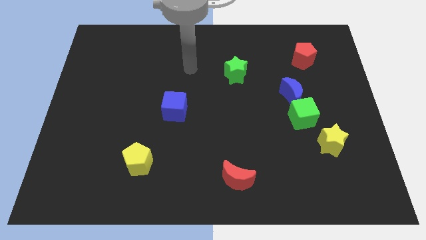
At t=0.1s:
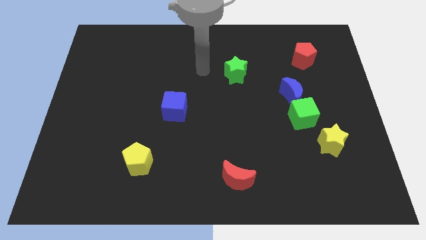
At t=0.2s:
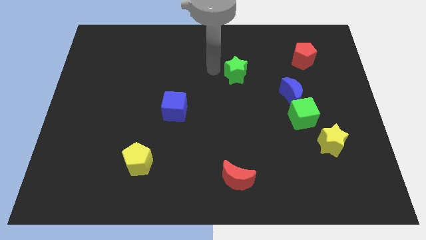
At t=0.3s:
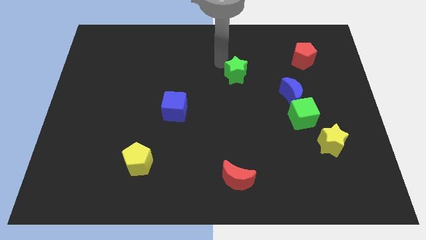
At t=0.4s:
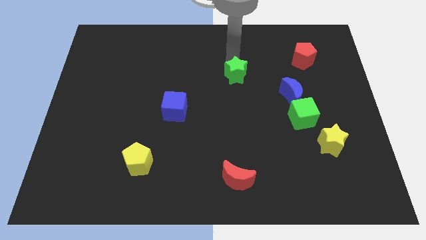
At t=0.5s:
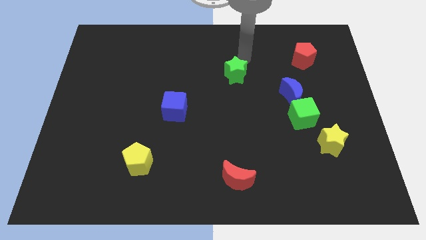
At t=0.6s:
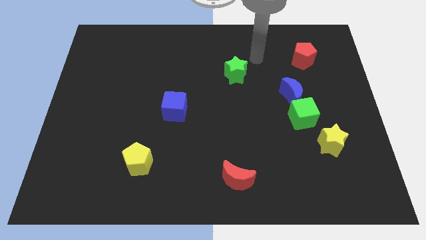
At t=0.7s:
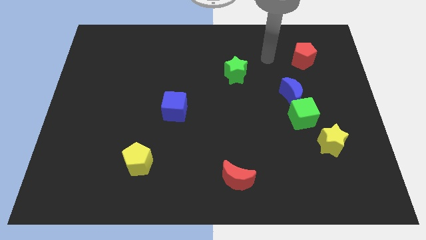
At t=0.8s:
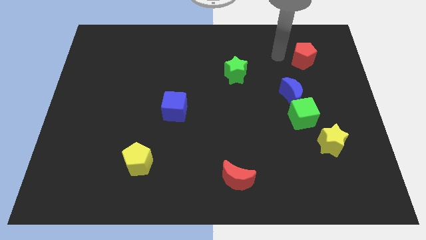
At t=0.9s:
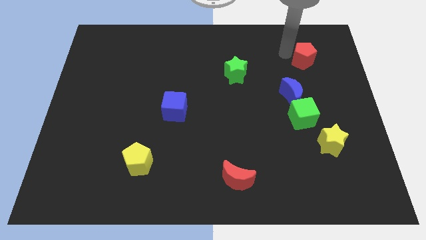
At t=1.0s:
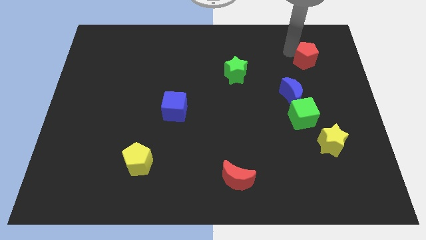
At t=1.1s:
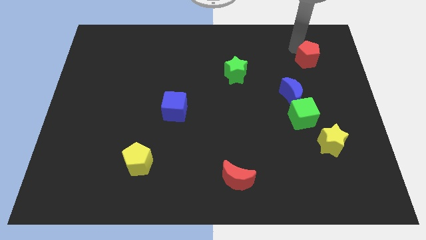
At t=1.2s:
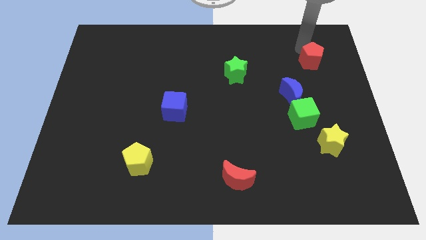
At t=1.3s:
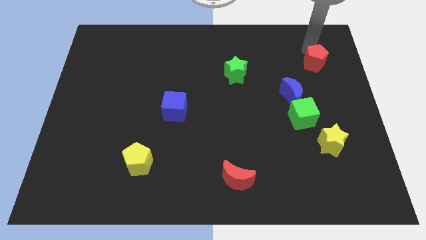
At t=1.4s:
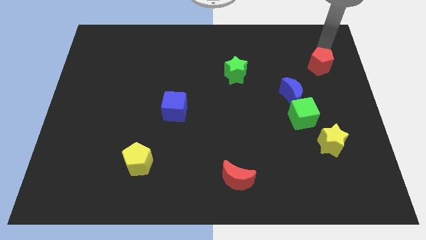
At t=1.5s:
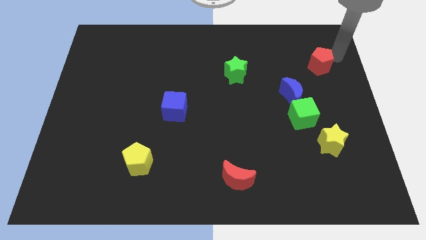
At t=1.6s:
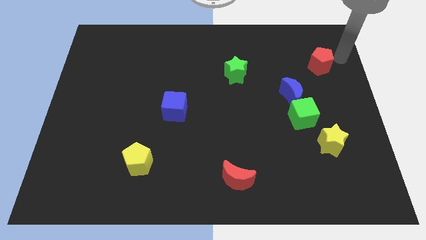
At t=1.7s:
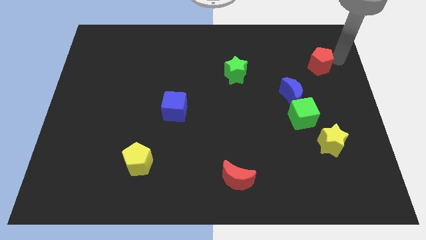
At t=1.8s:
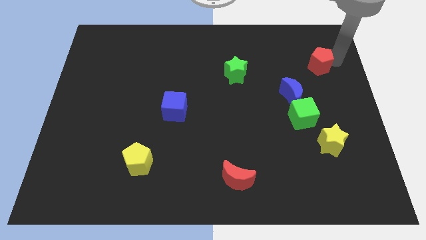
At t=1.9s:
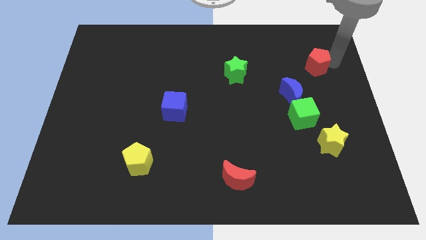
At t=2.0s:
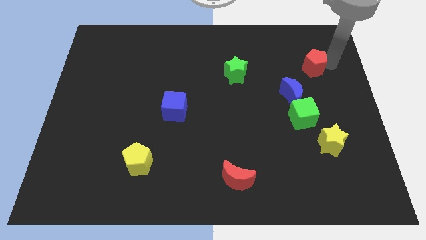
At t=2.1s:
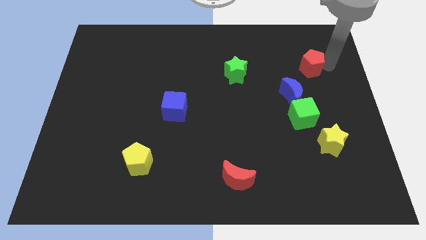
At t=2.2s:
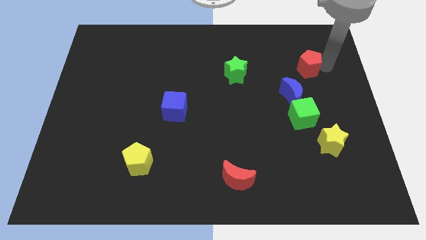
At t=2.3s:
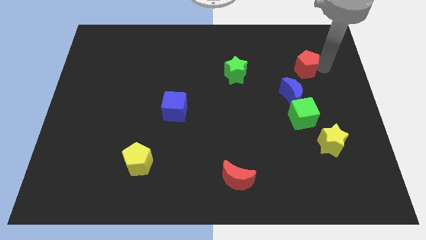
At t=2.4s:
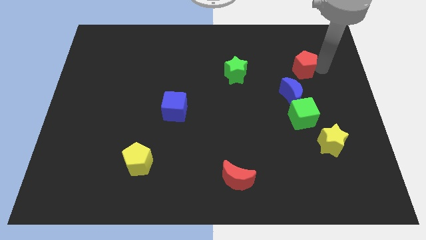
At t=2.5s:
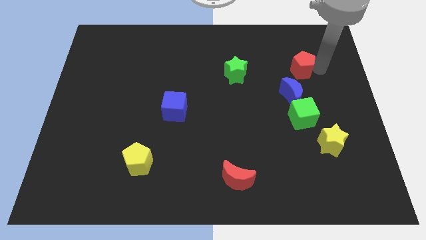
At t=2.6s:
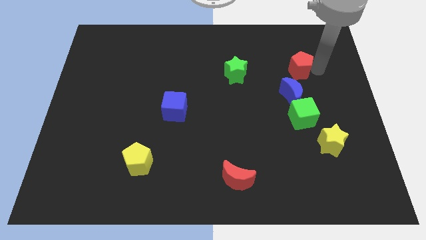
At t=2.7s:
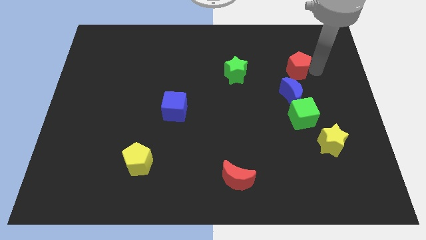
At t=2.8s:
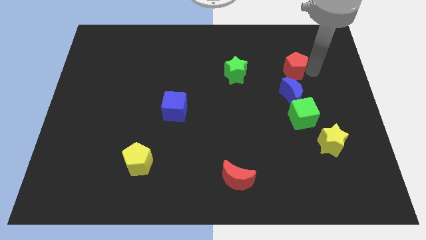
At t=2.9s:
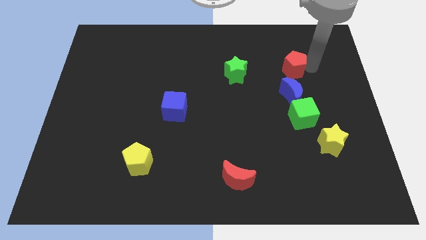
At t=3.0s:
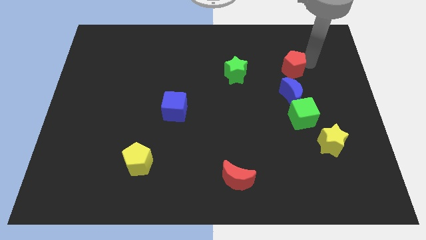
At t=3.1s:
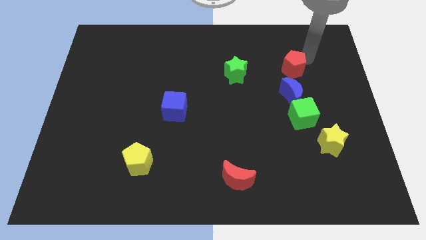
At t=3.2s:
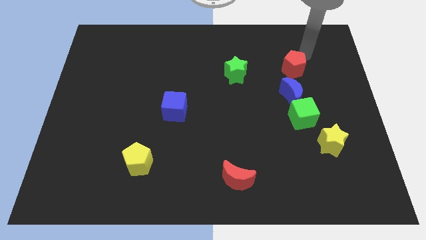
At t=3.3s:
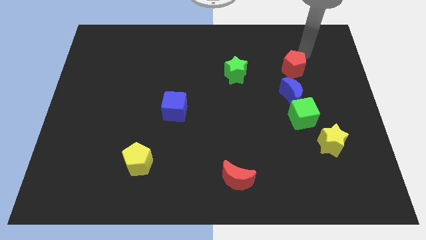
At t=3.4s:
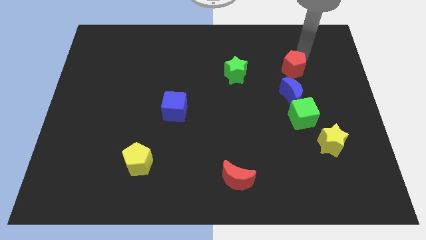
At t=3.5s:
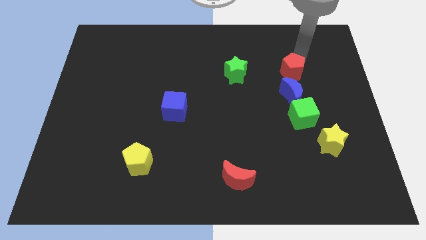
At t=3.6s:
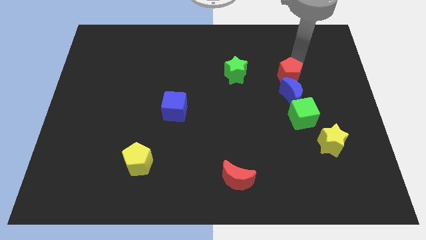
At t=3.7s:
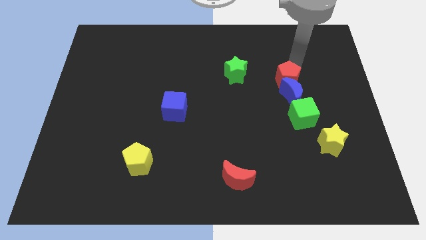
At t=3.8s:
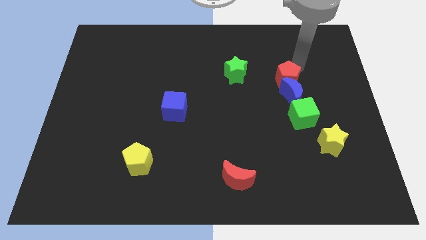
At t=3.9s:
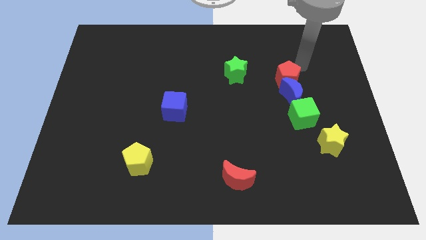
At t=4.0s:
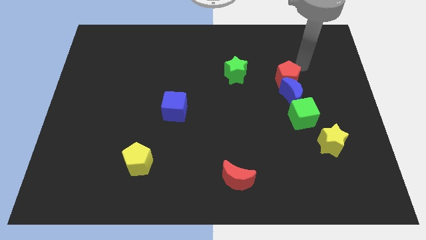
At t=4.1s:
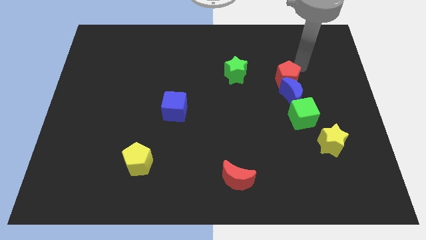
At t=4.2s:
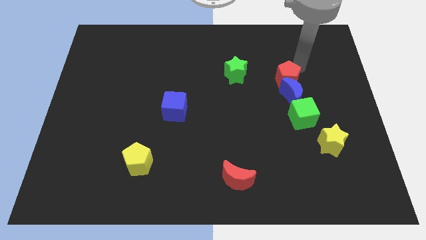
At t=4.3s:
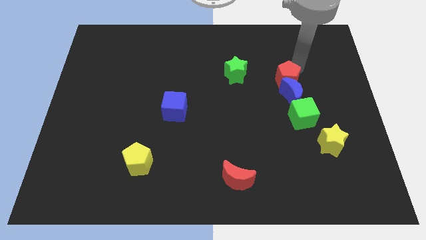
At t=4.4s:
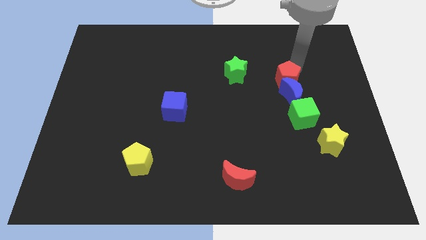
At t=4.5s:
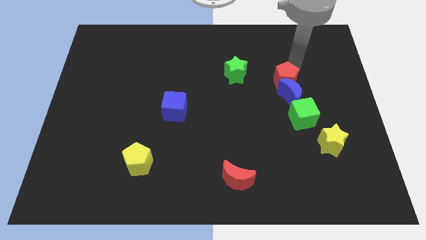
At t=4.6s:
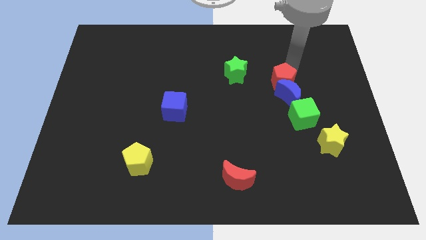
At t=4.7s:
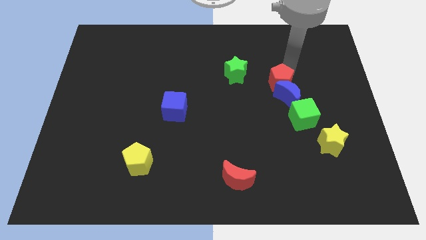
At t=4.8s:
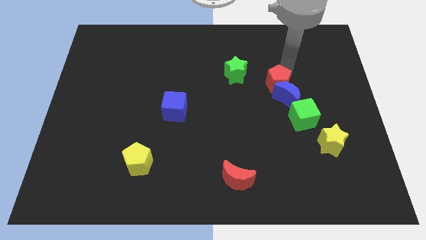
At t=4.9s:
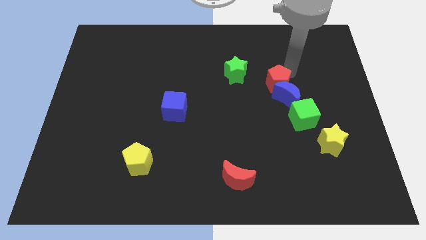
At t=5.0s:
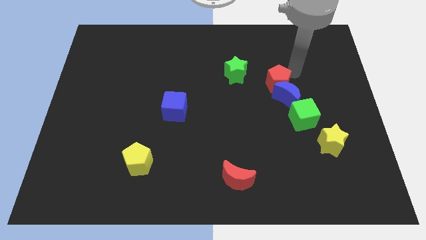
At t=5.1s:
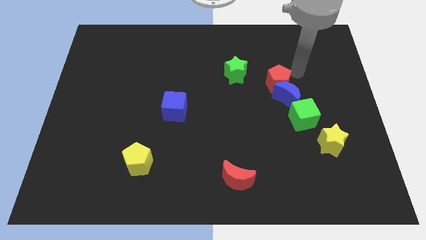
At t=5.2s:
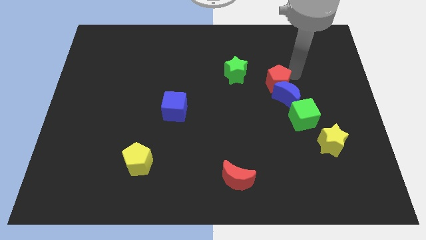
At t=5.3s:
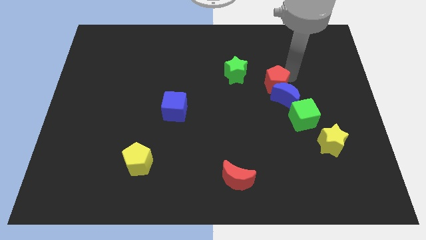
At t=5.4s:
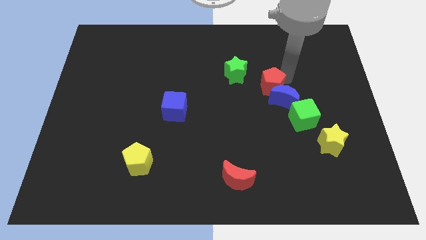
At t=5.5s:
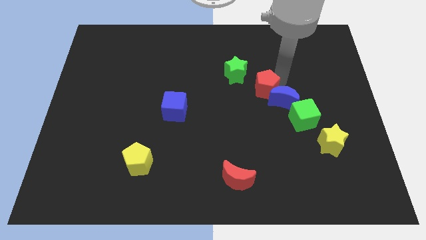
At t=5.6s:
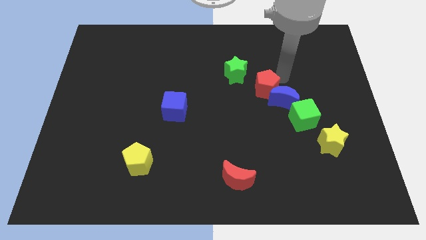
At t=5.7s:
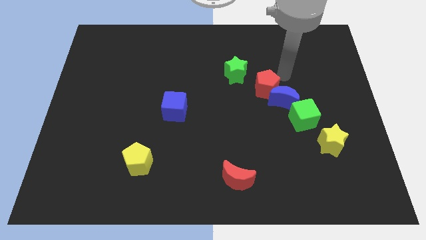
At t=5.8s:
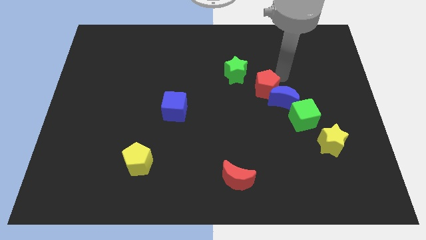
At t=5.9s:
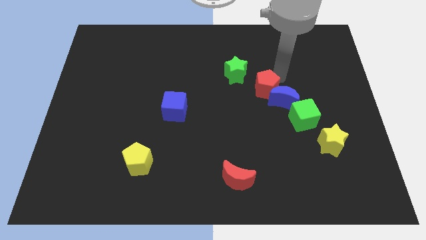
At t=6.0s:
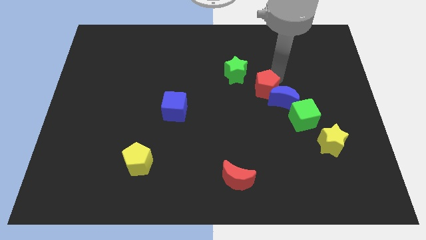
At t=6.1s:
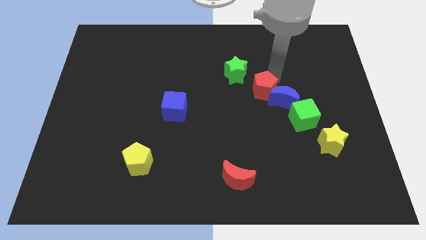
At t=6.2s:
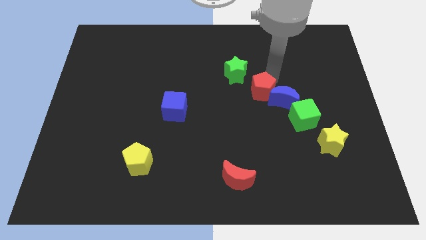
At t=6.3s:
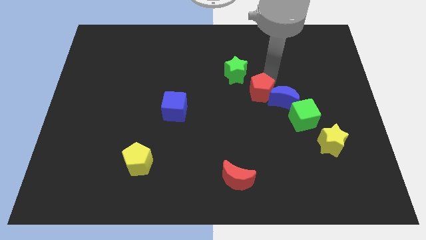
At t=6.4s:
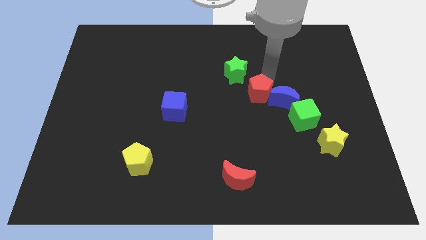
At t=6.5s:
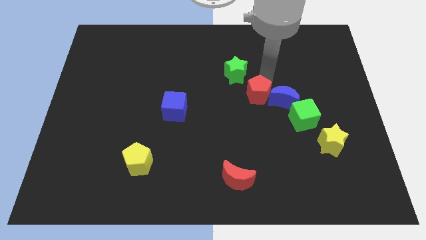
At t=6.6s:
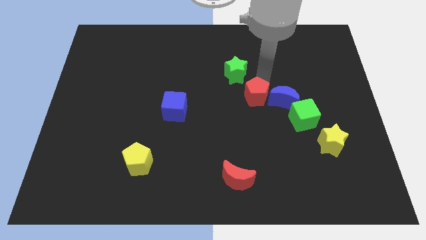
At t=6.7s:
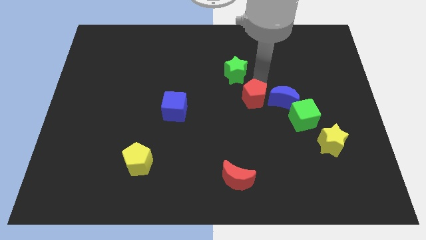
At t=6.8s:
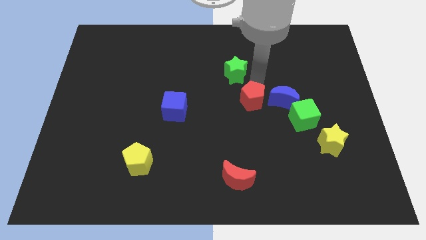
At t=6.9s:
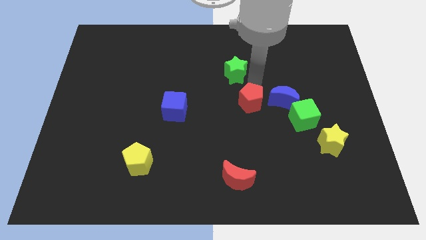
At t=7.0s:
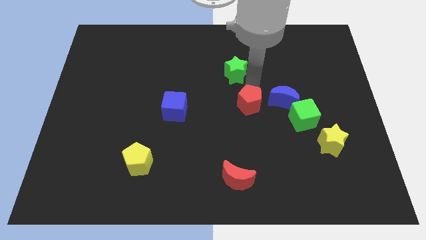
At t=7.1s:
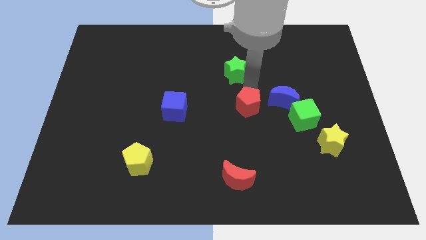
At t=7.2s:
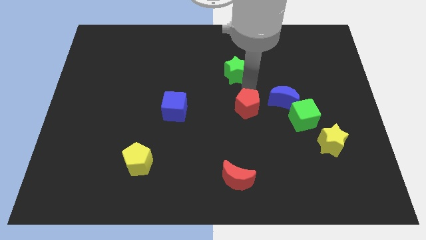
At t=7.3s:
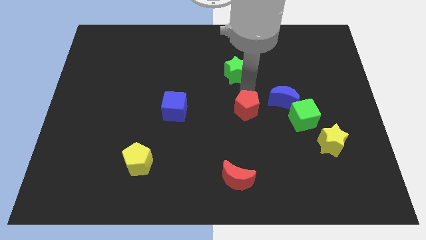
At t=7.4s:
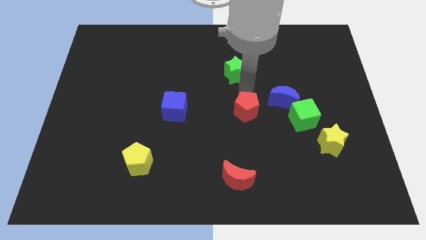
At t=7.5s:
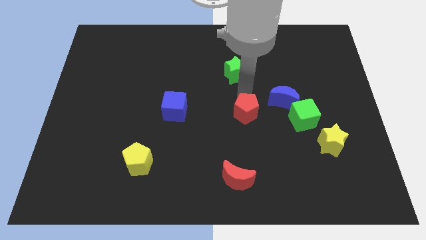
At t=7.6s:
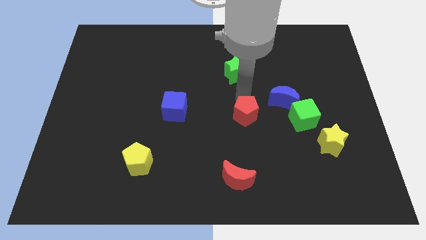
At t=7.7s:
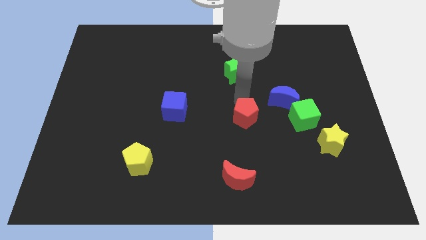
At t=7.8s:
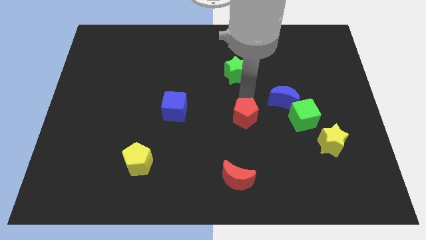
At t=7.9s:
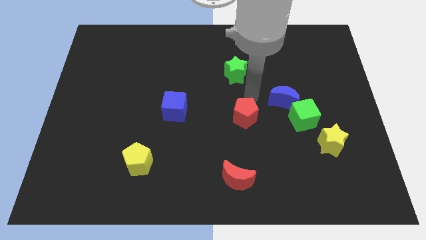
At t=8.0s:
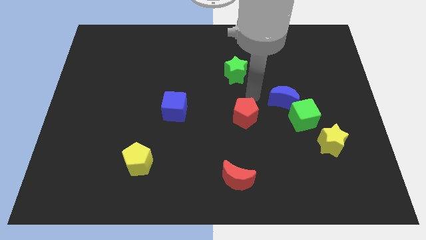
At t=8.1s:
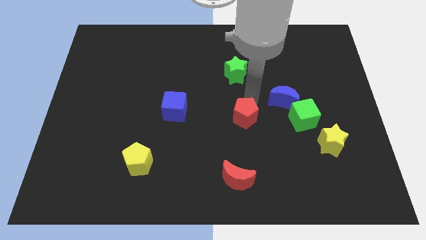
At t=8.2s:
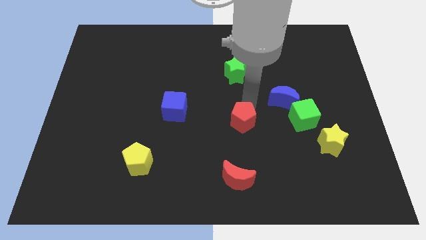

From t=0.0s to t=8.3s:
put the red pentagon to the top side of the red moon
